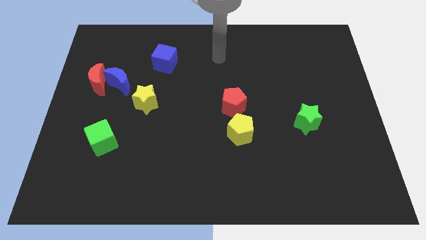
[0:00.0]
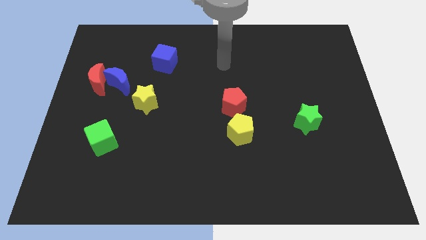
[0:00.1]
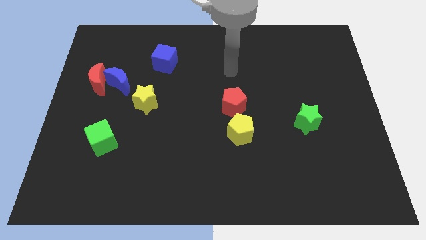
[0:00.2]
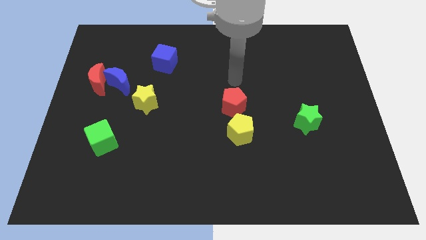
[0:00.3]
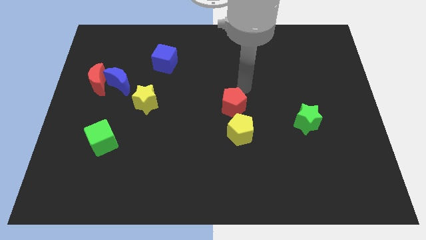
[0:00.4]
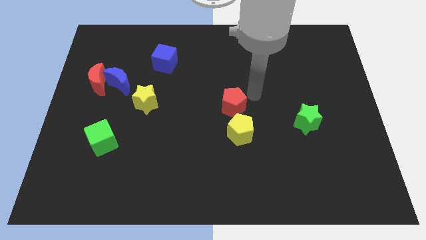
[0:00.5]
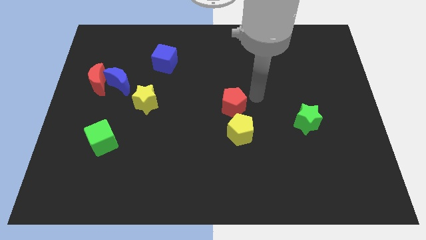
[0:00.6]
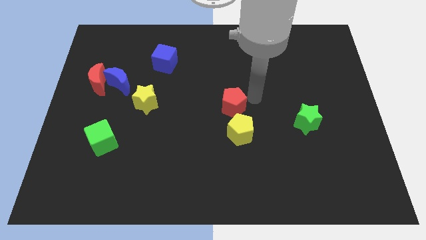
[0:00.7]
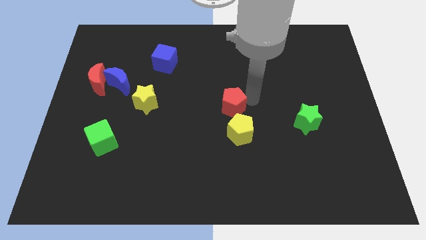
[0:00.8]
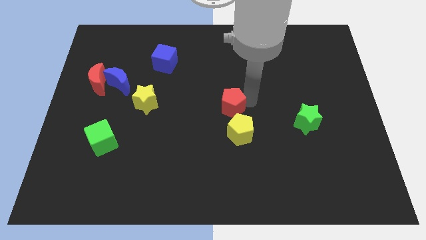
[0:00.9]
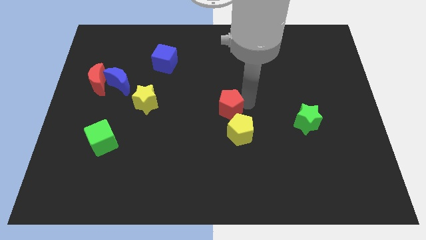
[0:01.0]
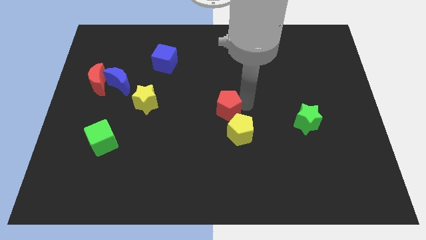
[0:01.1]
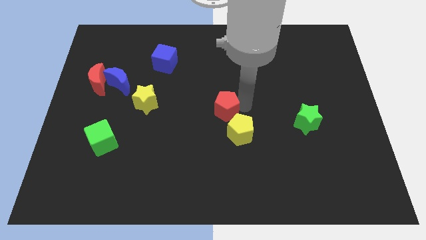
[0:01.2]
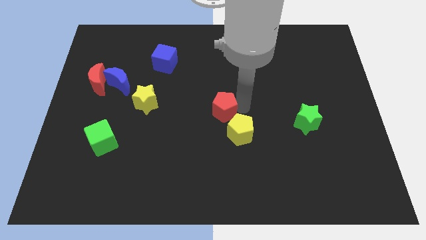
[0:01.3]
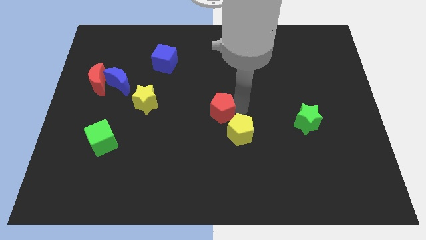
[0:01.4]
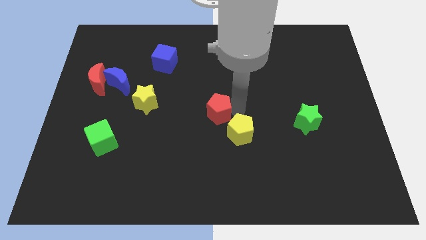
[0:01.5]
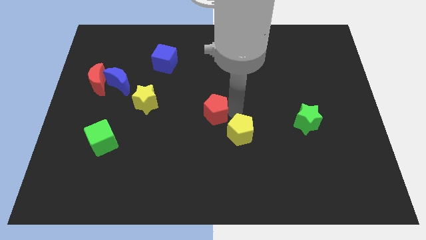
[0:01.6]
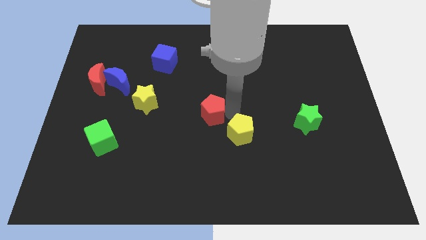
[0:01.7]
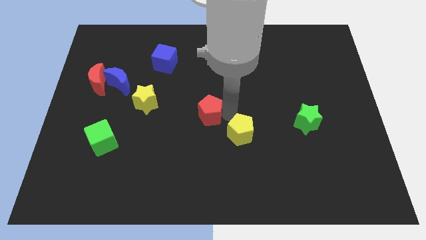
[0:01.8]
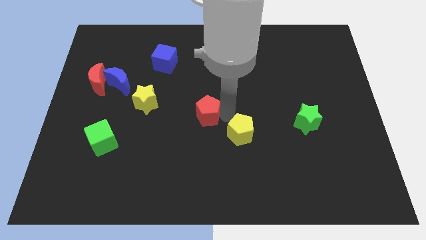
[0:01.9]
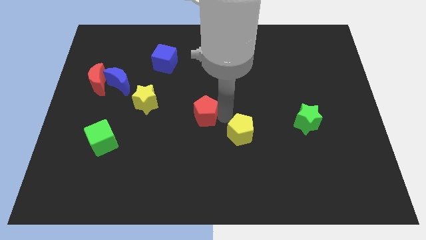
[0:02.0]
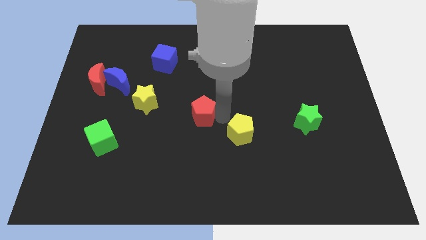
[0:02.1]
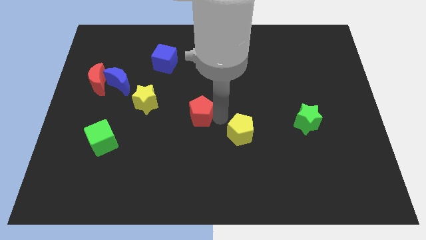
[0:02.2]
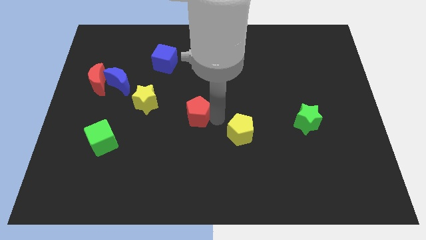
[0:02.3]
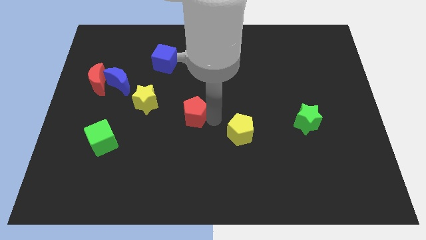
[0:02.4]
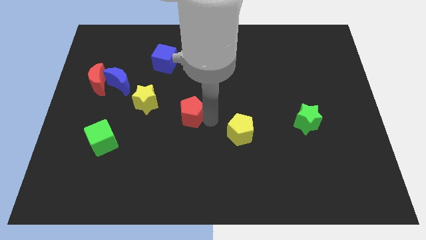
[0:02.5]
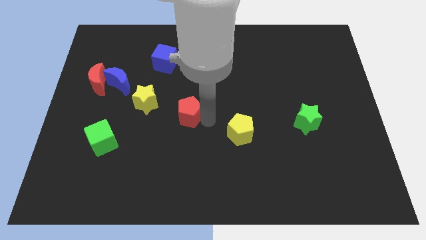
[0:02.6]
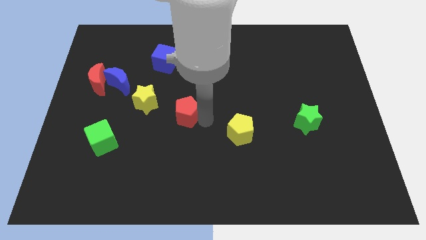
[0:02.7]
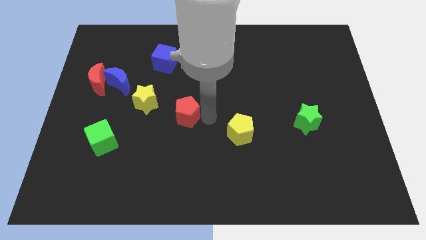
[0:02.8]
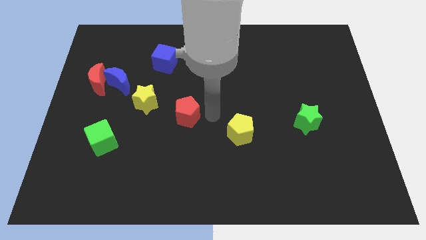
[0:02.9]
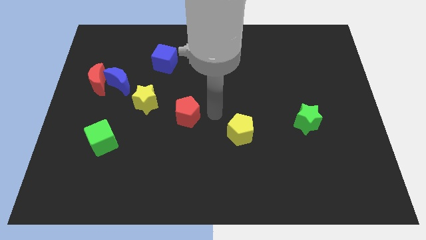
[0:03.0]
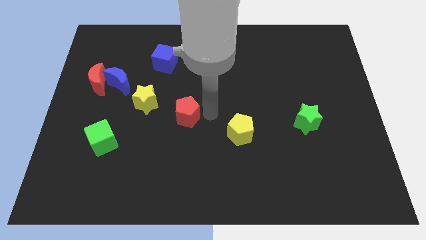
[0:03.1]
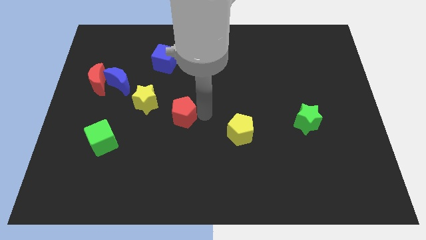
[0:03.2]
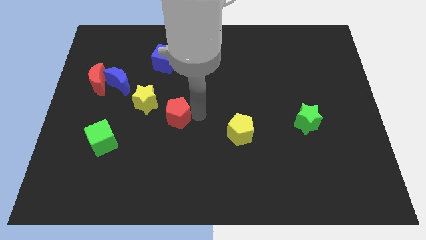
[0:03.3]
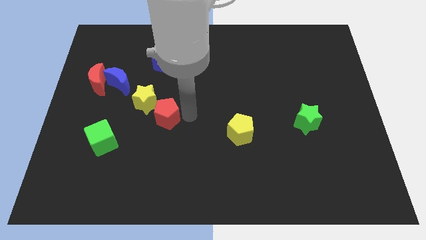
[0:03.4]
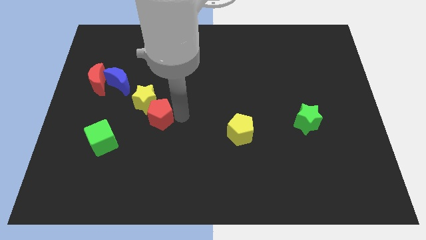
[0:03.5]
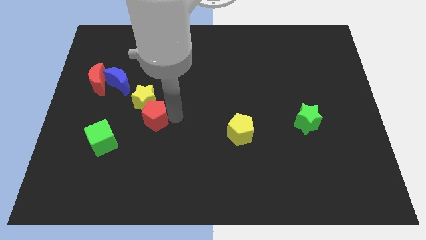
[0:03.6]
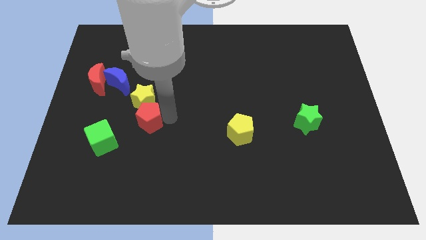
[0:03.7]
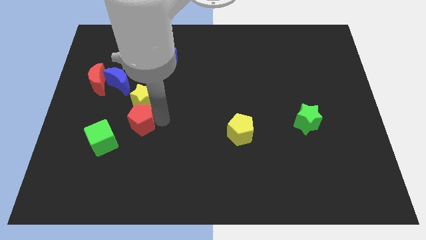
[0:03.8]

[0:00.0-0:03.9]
push the red pentagon to the left

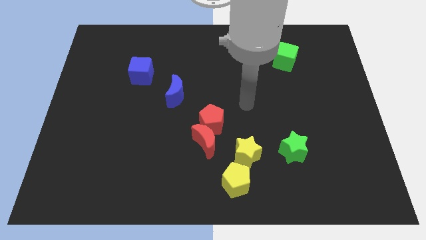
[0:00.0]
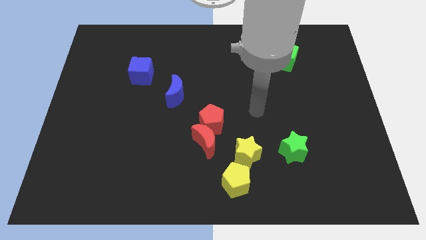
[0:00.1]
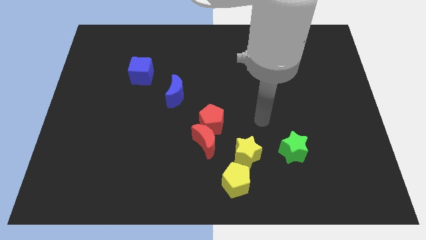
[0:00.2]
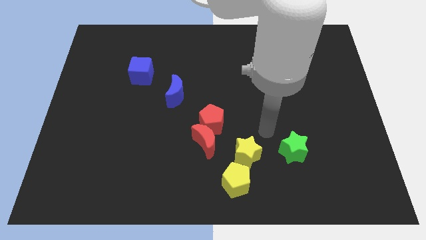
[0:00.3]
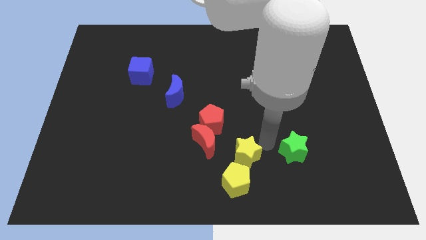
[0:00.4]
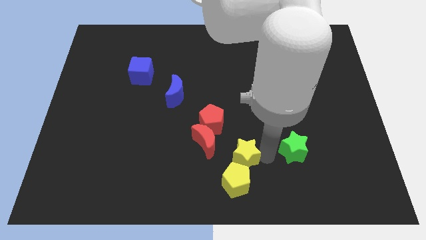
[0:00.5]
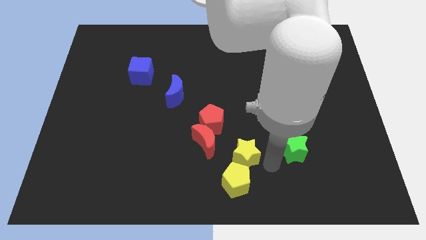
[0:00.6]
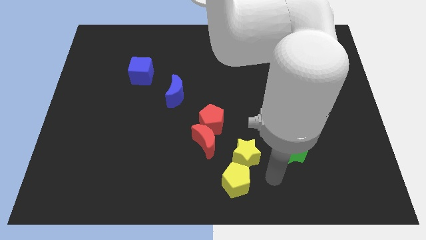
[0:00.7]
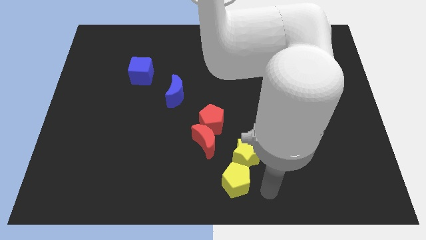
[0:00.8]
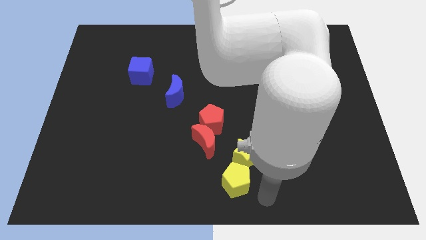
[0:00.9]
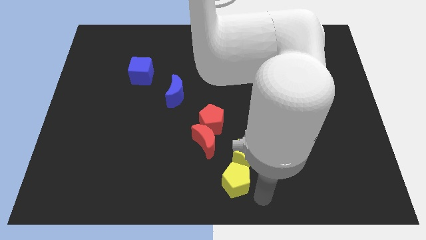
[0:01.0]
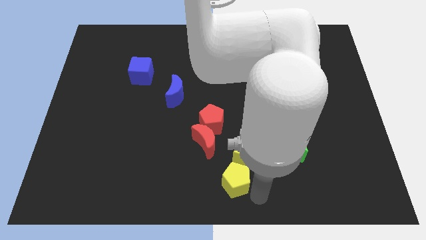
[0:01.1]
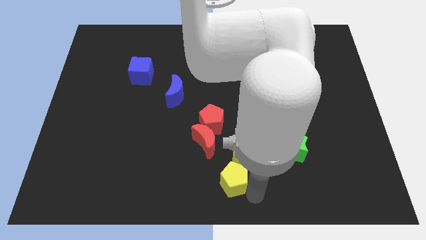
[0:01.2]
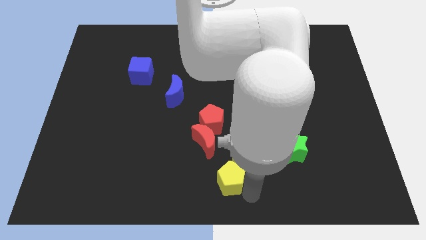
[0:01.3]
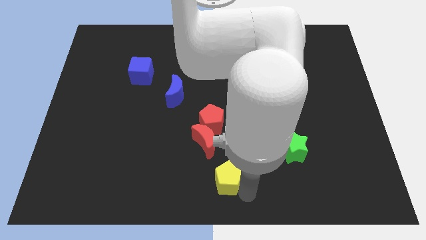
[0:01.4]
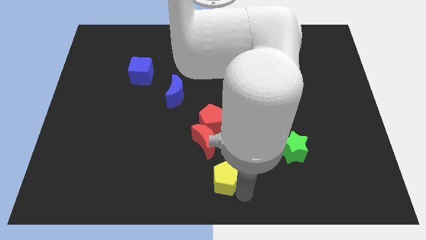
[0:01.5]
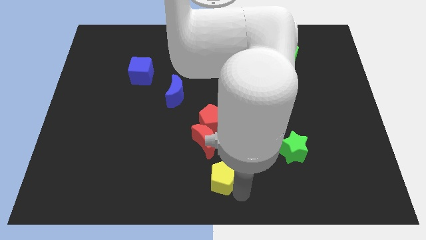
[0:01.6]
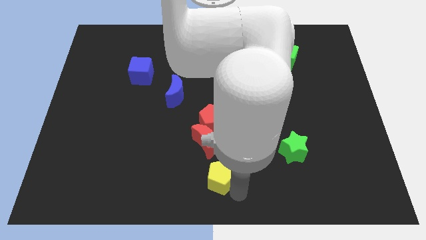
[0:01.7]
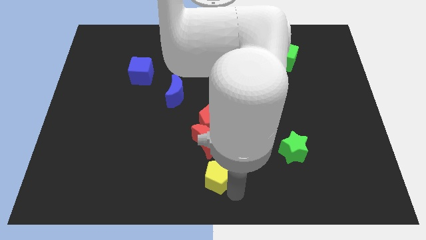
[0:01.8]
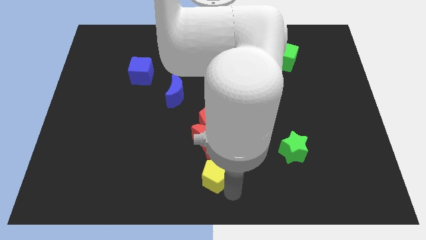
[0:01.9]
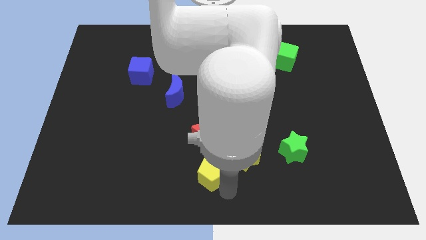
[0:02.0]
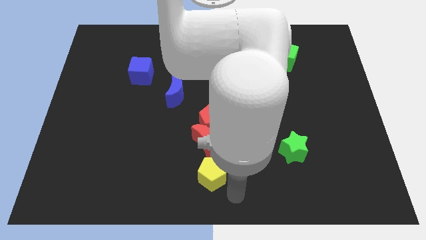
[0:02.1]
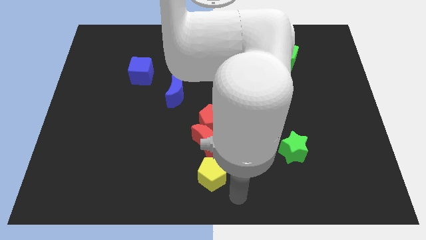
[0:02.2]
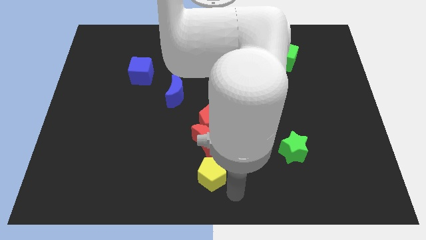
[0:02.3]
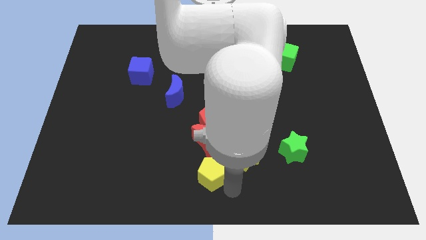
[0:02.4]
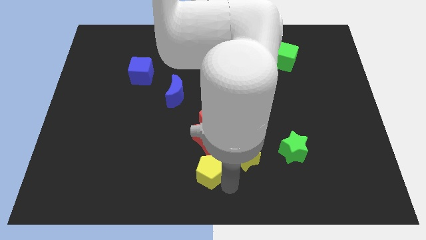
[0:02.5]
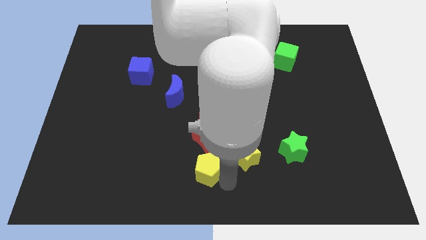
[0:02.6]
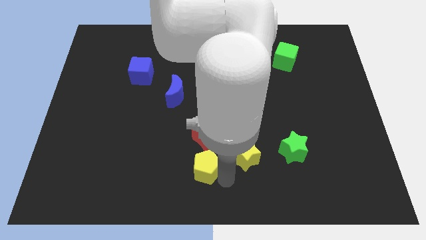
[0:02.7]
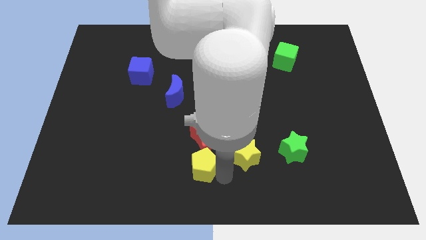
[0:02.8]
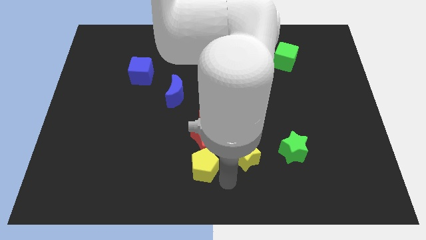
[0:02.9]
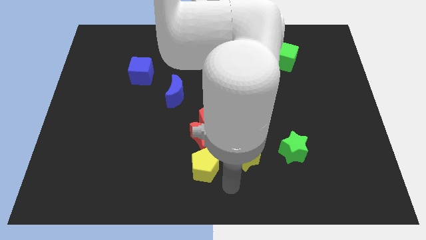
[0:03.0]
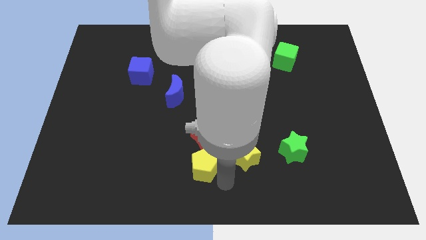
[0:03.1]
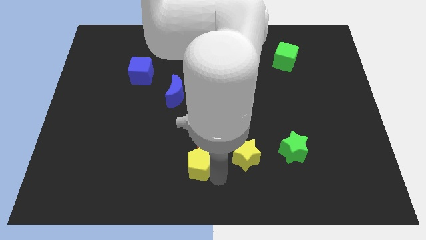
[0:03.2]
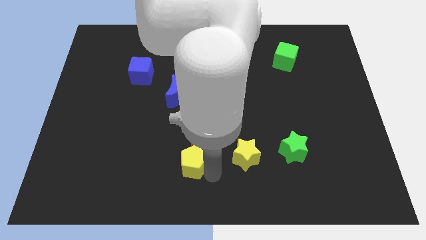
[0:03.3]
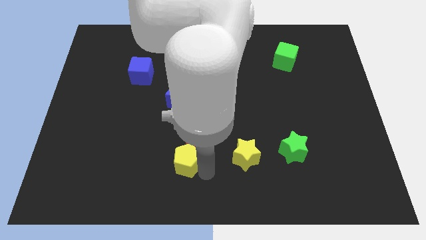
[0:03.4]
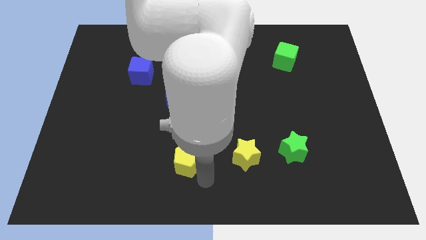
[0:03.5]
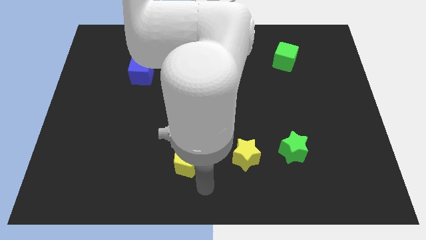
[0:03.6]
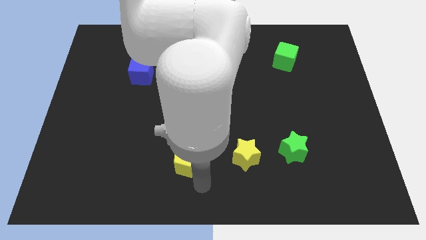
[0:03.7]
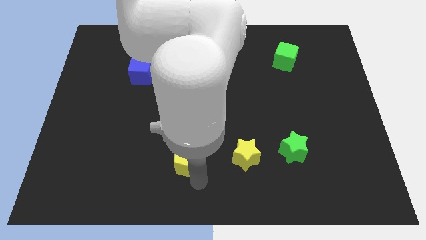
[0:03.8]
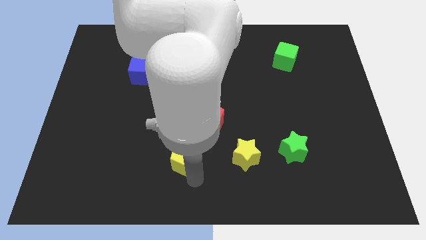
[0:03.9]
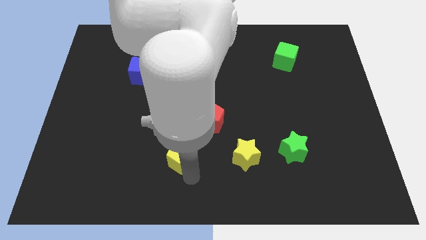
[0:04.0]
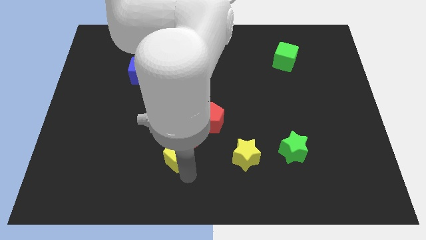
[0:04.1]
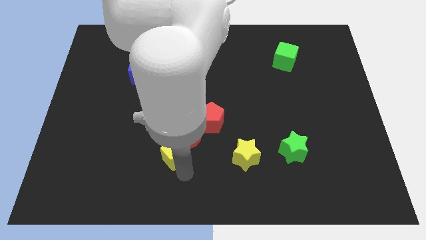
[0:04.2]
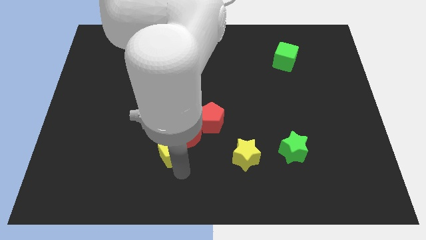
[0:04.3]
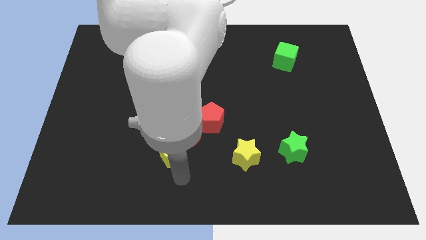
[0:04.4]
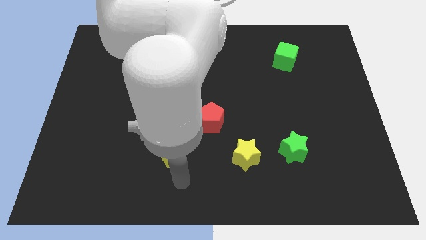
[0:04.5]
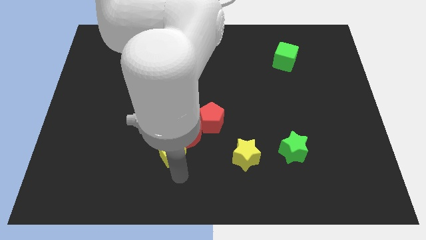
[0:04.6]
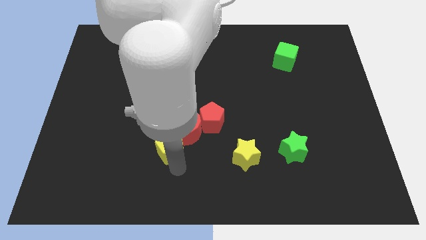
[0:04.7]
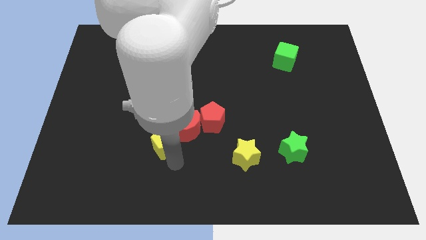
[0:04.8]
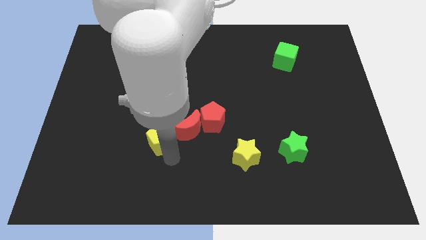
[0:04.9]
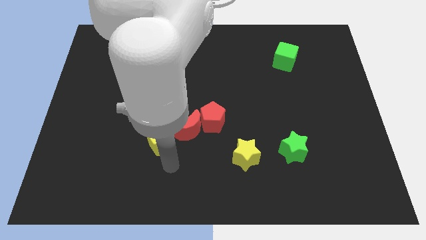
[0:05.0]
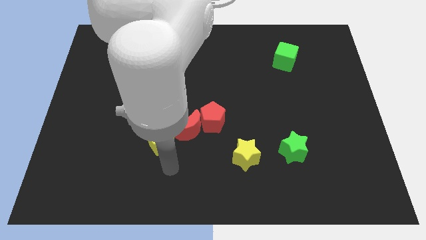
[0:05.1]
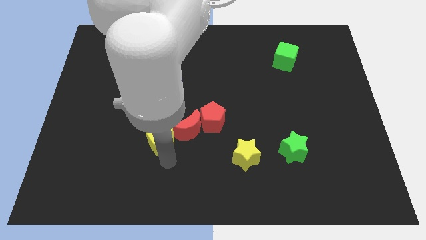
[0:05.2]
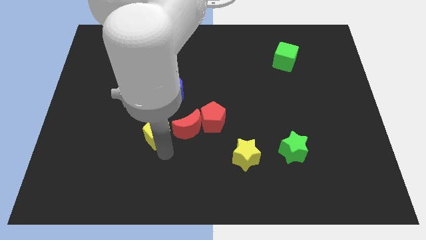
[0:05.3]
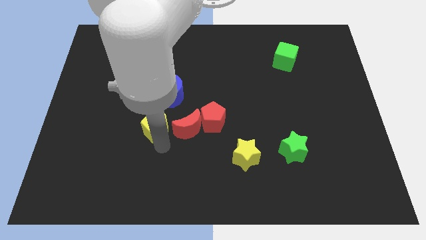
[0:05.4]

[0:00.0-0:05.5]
push the yellow pentagon up and then to the left
